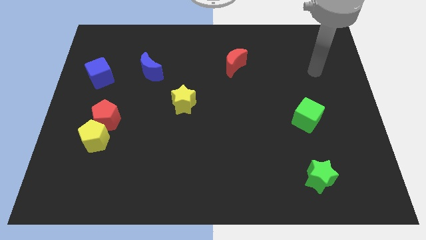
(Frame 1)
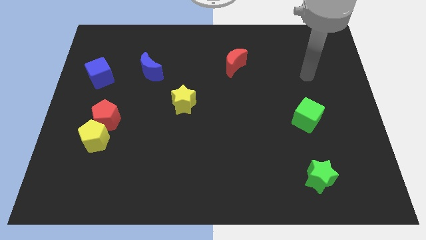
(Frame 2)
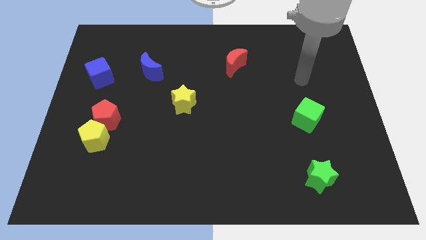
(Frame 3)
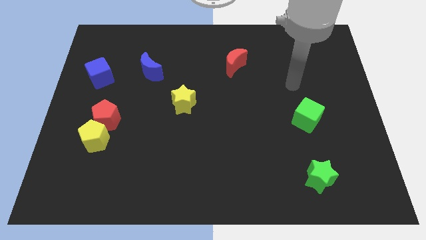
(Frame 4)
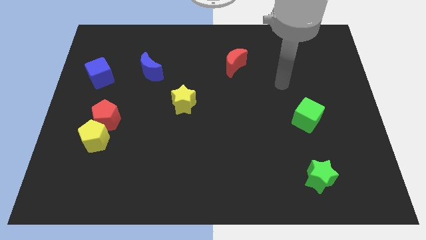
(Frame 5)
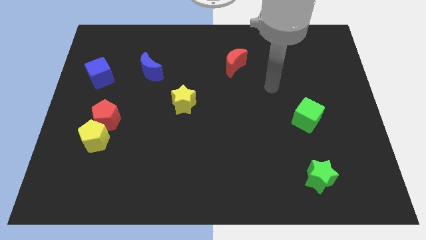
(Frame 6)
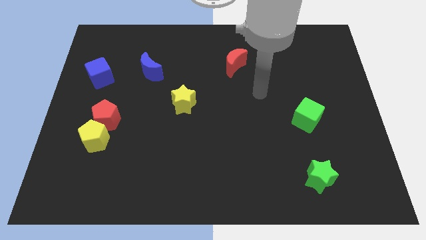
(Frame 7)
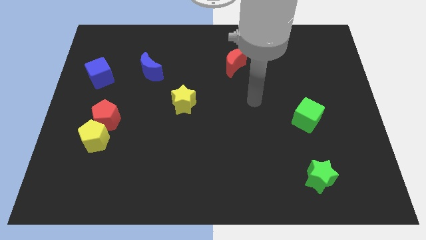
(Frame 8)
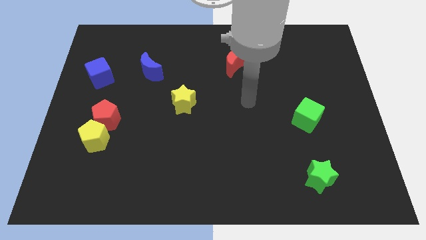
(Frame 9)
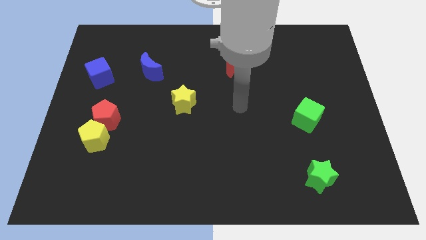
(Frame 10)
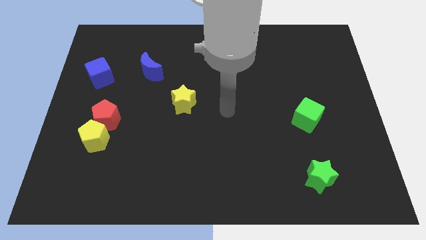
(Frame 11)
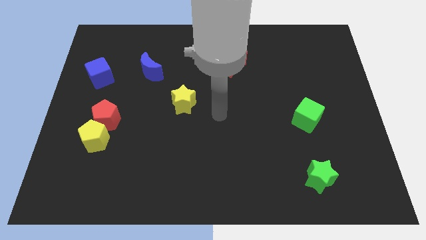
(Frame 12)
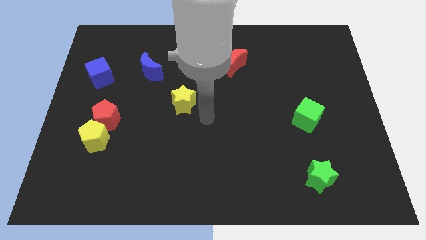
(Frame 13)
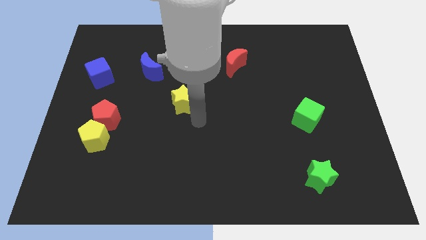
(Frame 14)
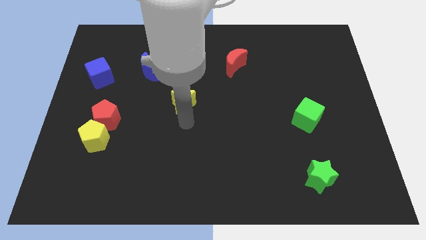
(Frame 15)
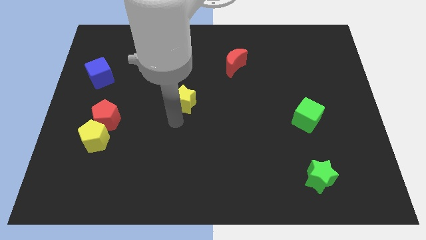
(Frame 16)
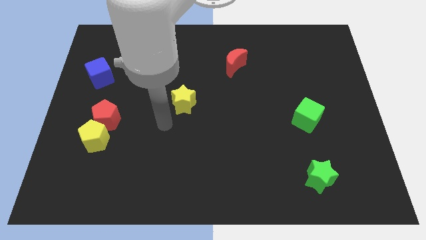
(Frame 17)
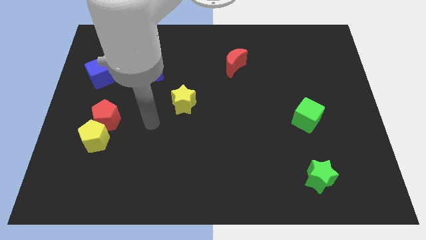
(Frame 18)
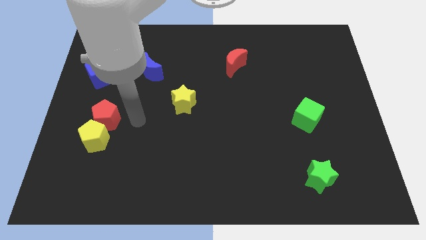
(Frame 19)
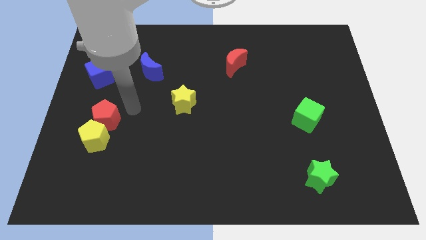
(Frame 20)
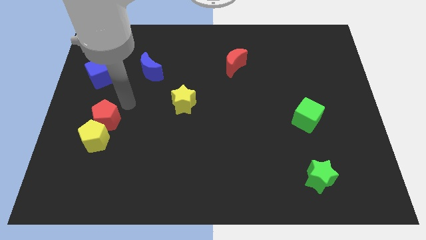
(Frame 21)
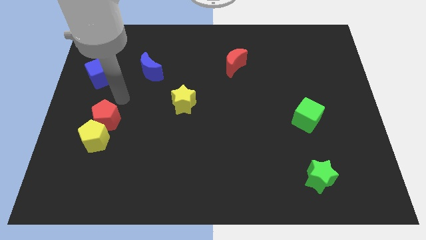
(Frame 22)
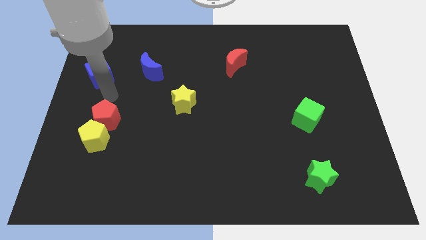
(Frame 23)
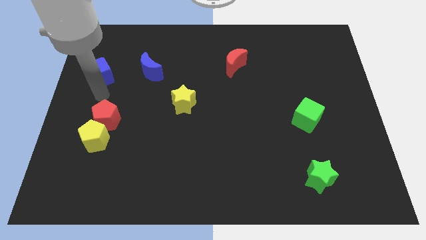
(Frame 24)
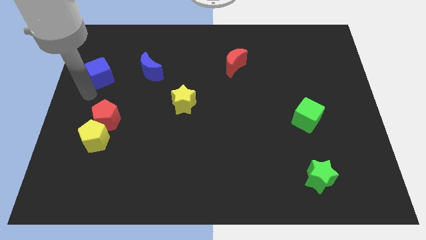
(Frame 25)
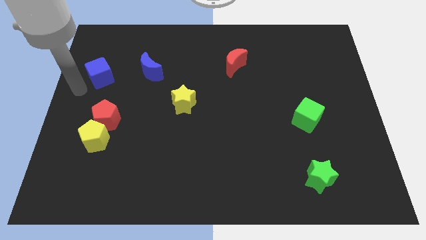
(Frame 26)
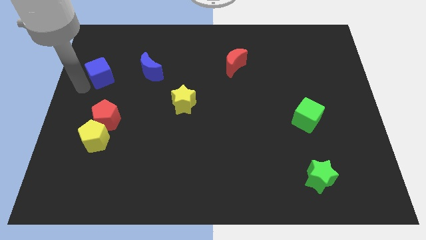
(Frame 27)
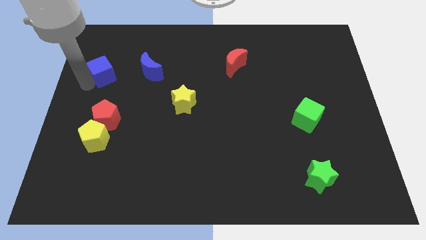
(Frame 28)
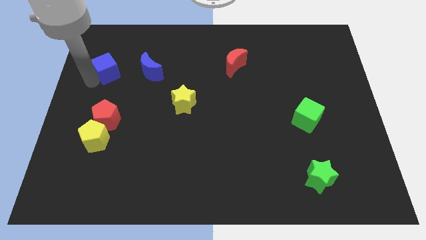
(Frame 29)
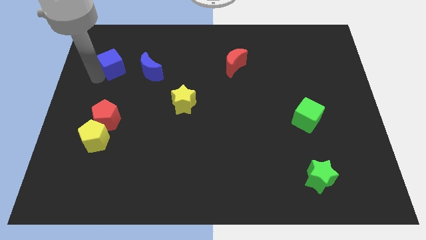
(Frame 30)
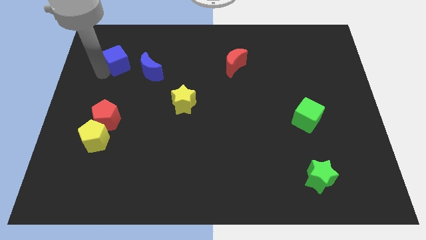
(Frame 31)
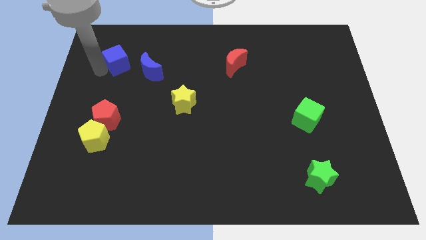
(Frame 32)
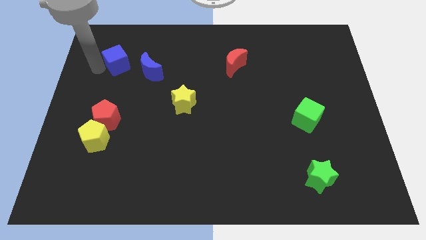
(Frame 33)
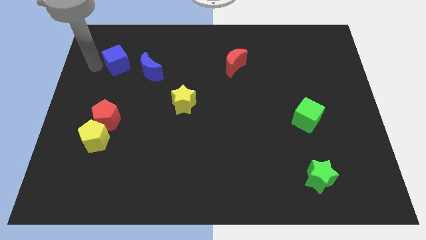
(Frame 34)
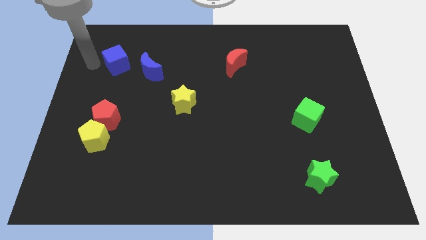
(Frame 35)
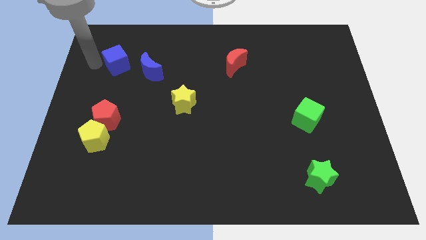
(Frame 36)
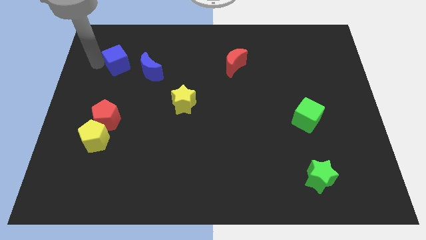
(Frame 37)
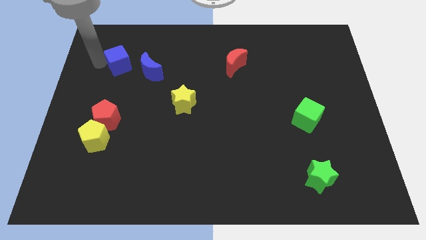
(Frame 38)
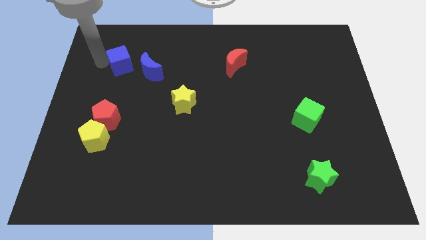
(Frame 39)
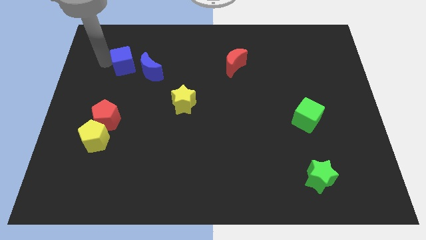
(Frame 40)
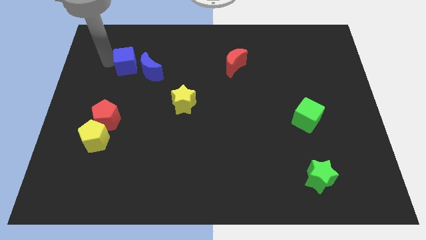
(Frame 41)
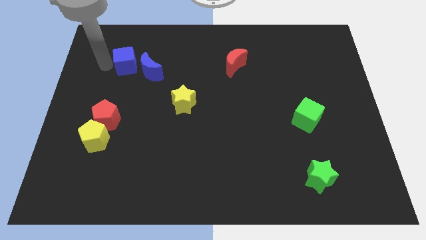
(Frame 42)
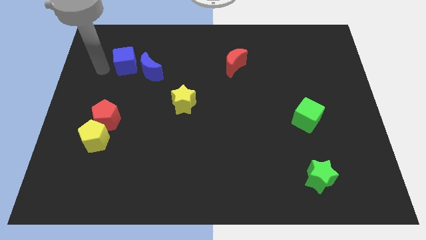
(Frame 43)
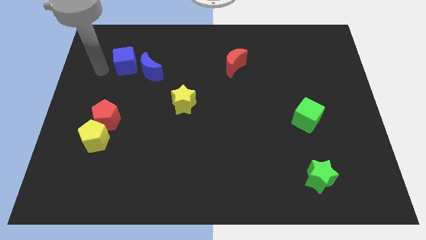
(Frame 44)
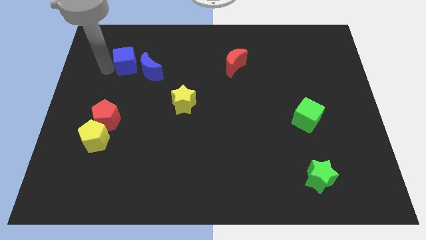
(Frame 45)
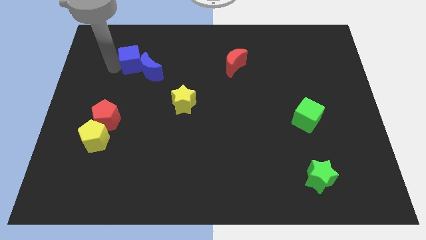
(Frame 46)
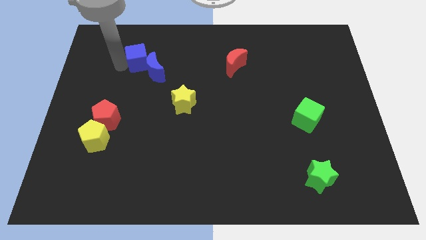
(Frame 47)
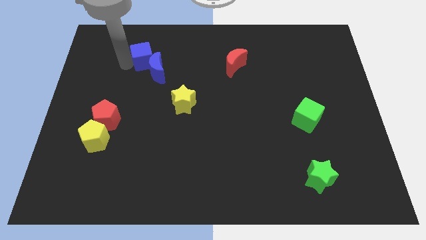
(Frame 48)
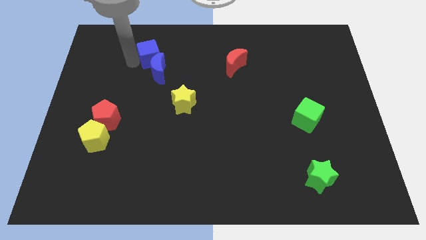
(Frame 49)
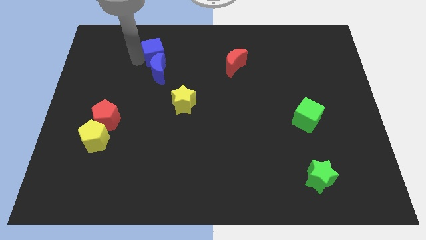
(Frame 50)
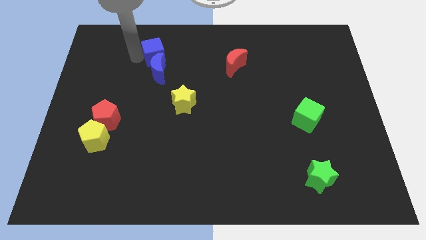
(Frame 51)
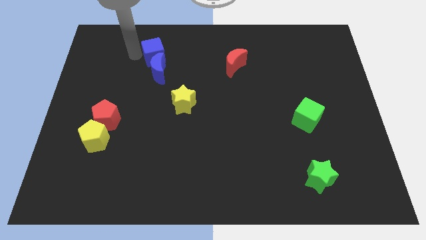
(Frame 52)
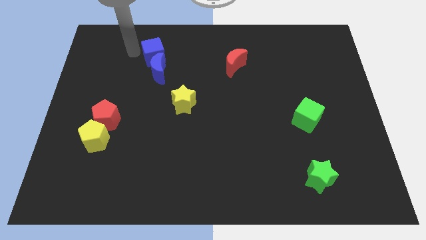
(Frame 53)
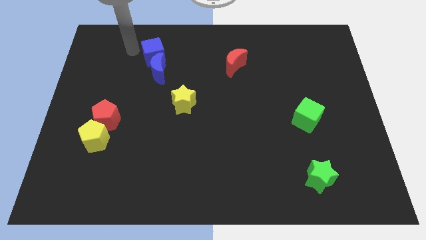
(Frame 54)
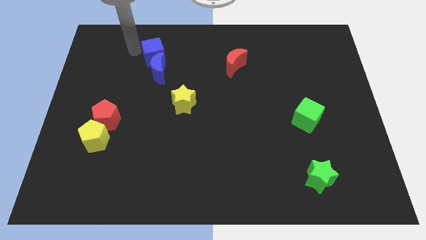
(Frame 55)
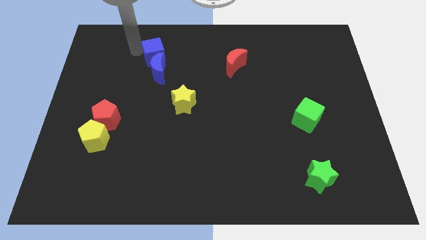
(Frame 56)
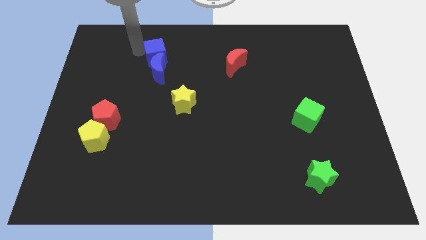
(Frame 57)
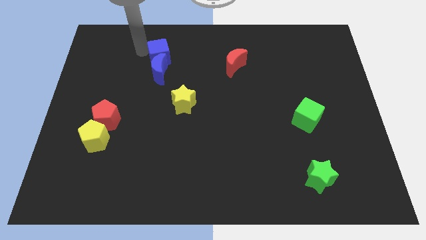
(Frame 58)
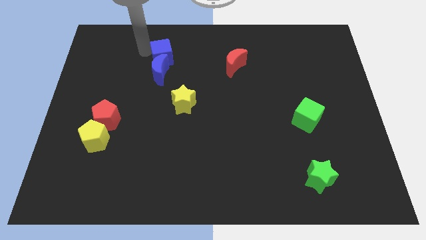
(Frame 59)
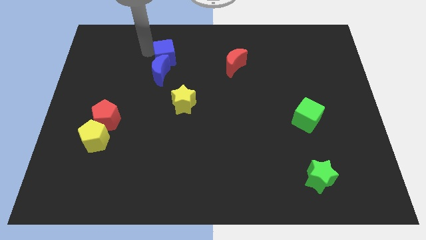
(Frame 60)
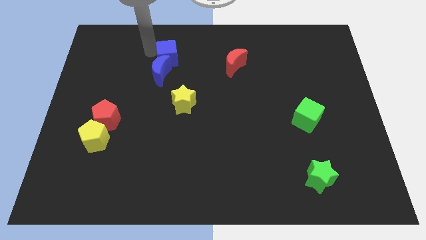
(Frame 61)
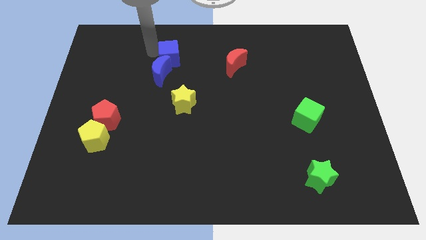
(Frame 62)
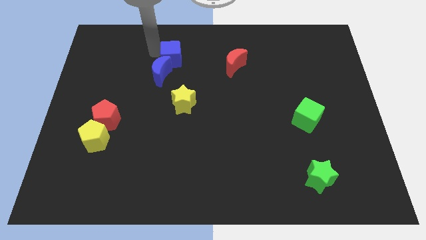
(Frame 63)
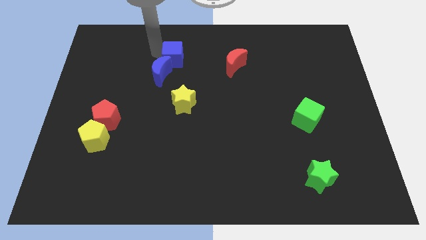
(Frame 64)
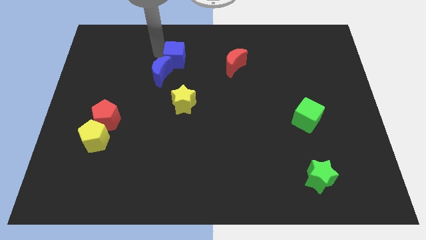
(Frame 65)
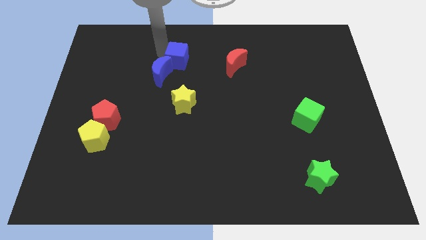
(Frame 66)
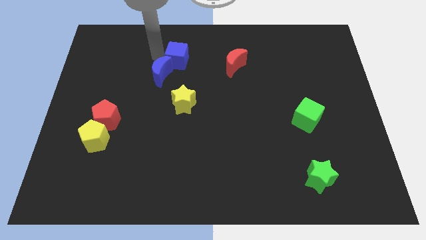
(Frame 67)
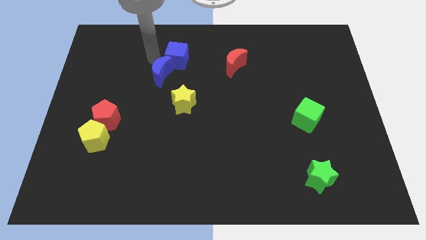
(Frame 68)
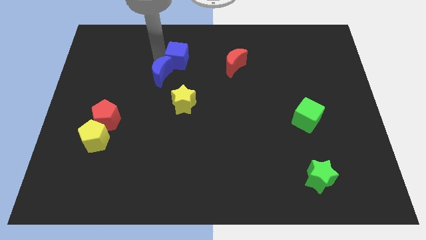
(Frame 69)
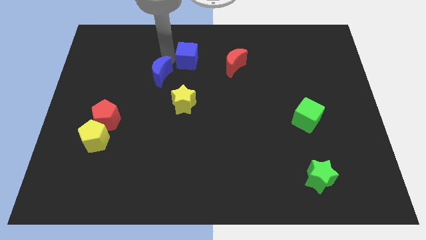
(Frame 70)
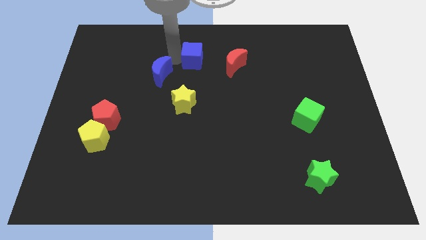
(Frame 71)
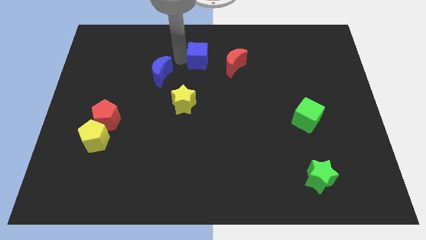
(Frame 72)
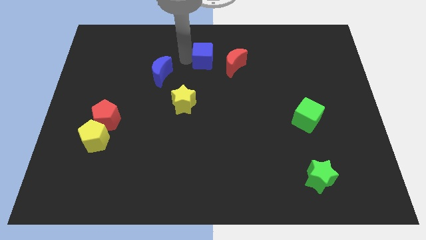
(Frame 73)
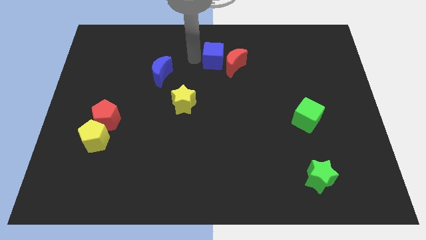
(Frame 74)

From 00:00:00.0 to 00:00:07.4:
push the blue cube towards the red moon
